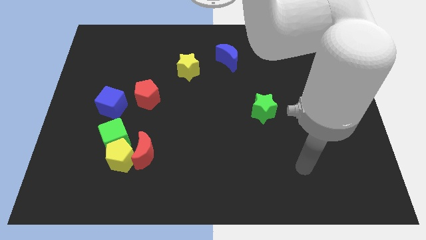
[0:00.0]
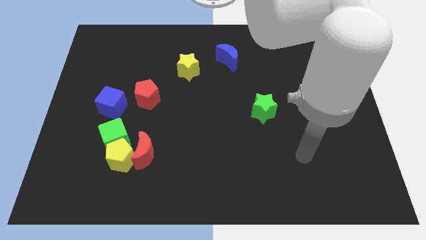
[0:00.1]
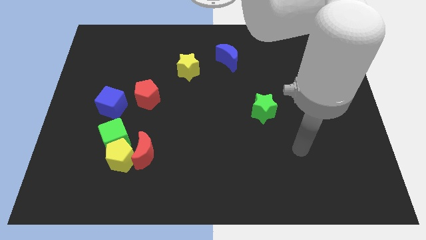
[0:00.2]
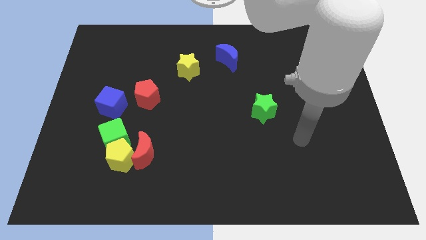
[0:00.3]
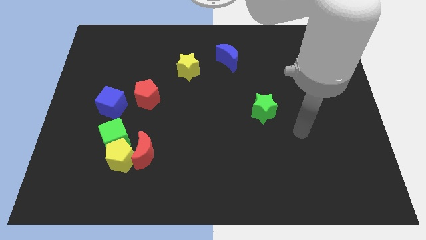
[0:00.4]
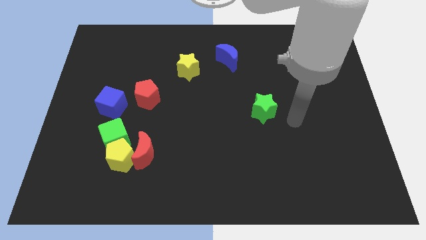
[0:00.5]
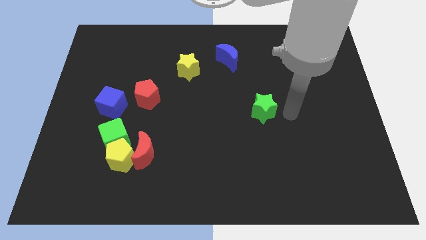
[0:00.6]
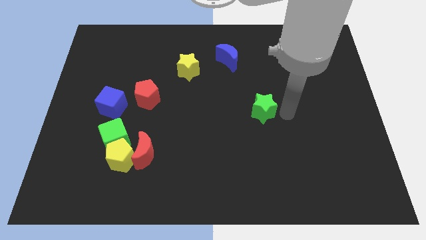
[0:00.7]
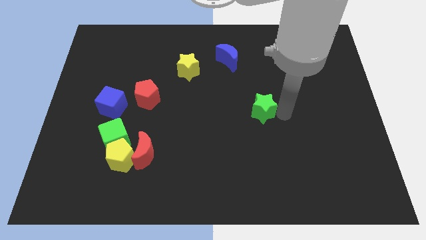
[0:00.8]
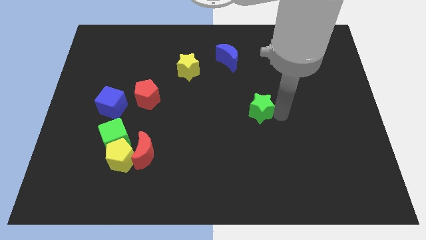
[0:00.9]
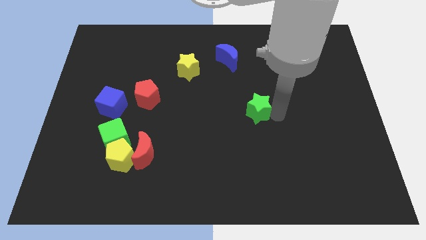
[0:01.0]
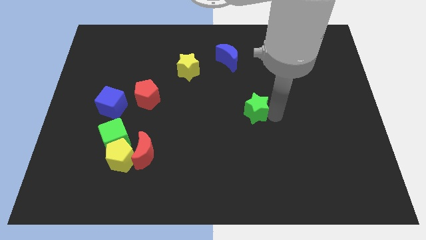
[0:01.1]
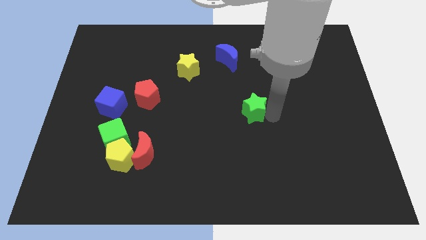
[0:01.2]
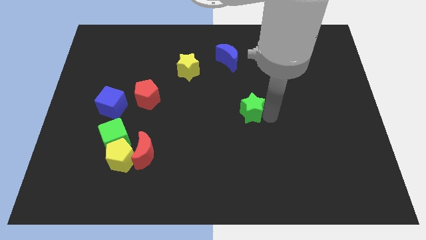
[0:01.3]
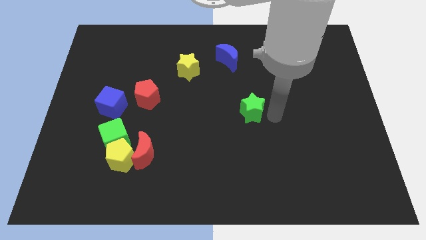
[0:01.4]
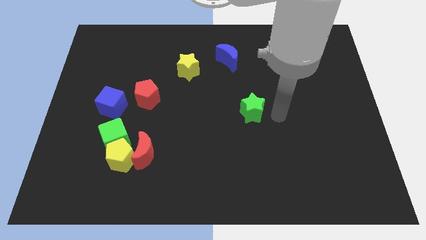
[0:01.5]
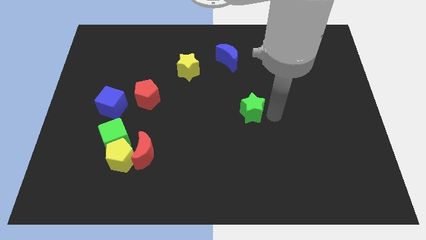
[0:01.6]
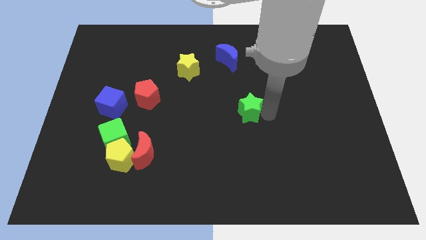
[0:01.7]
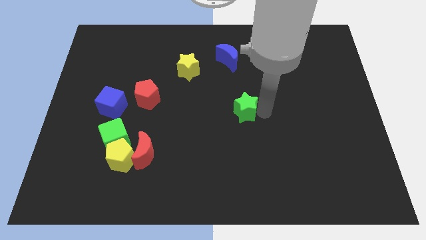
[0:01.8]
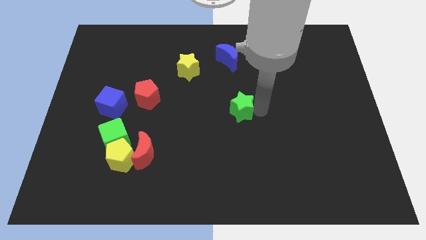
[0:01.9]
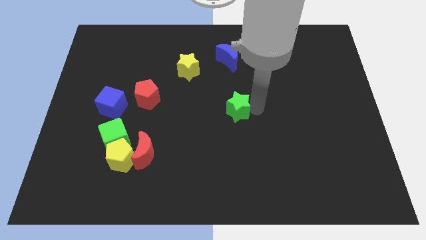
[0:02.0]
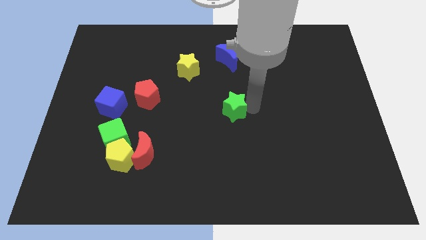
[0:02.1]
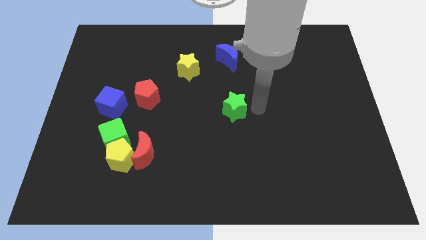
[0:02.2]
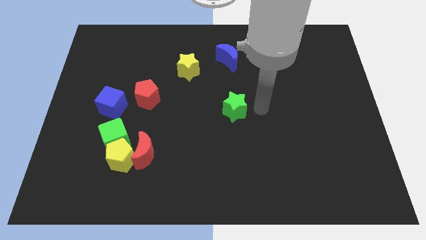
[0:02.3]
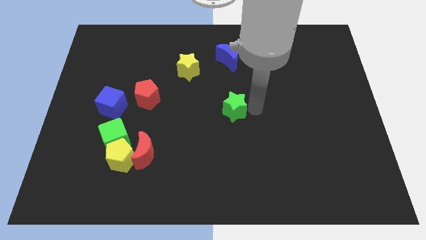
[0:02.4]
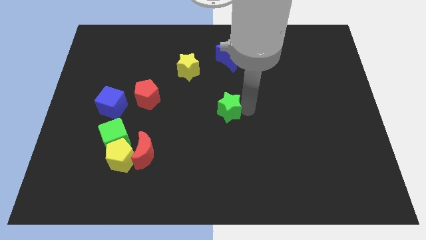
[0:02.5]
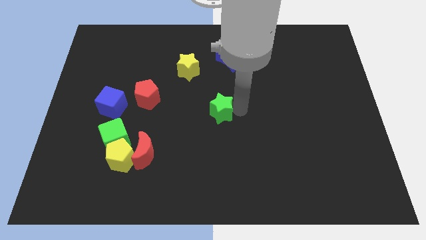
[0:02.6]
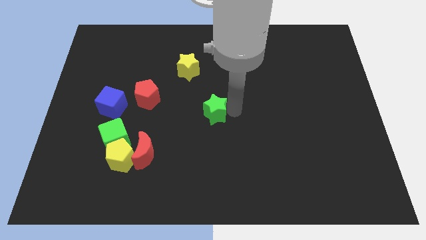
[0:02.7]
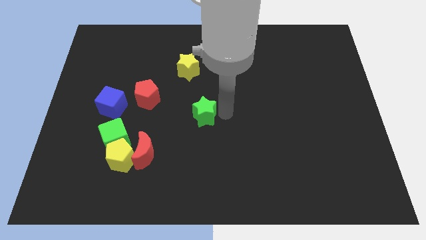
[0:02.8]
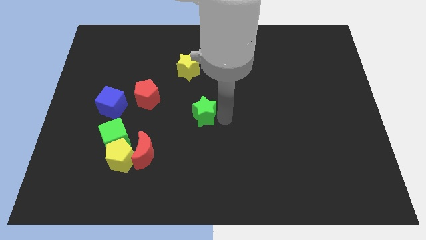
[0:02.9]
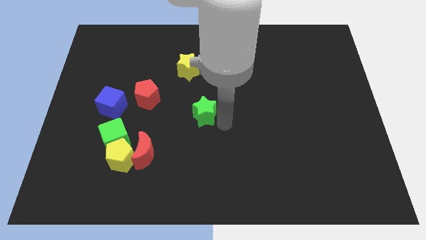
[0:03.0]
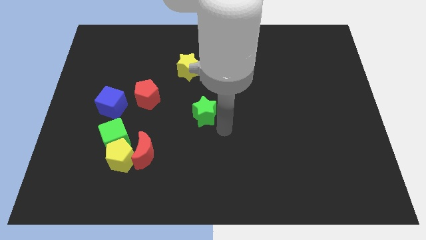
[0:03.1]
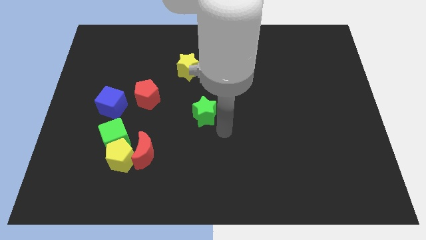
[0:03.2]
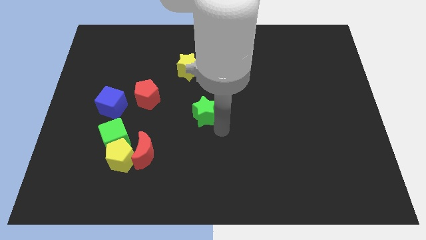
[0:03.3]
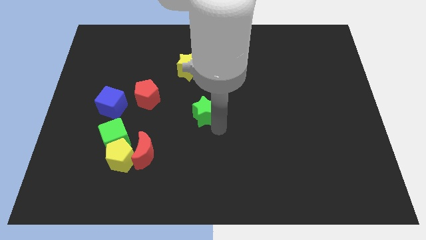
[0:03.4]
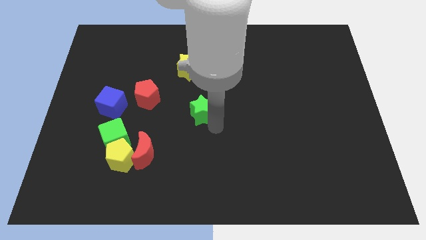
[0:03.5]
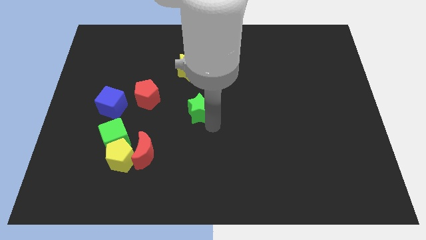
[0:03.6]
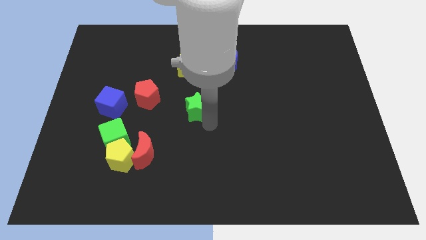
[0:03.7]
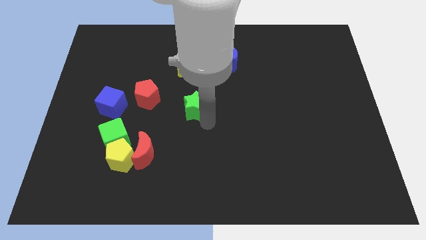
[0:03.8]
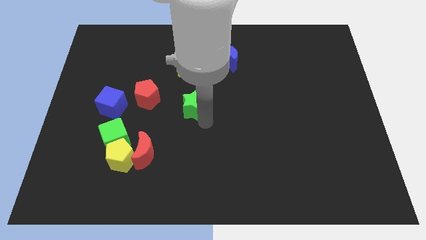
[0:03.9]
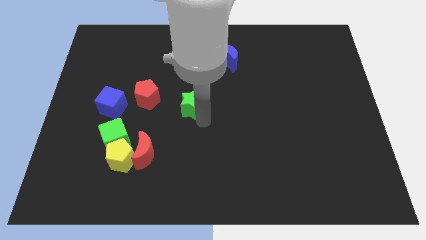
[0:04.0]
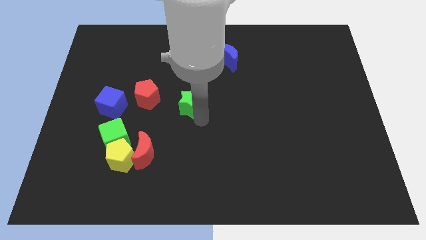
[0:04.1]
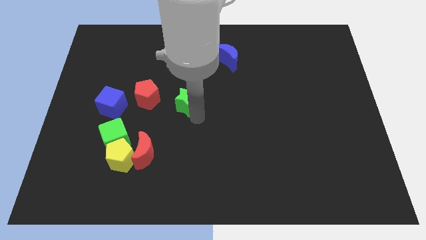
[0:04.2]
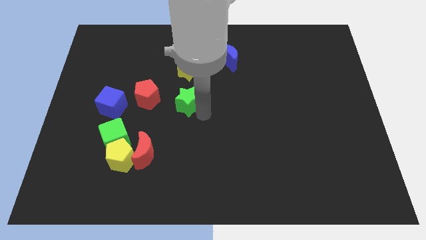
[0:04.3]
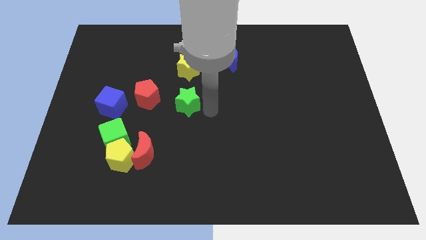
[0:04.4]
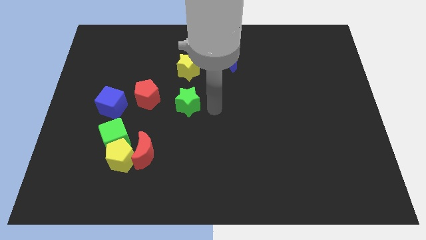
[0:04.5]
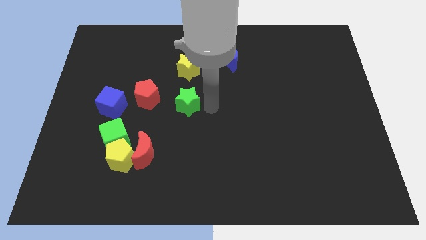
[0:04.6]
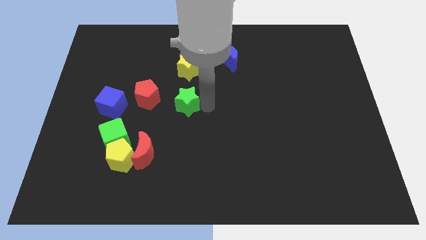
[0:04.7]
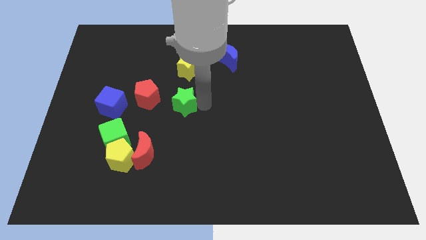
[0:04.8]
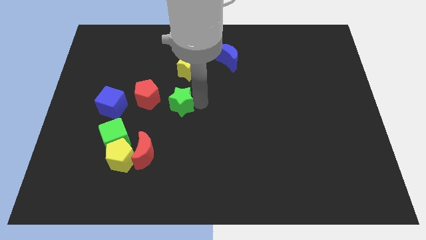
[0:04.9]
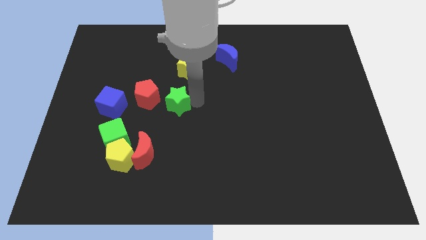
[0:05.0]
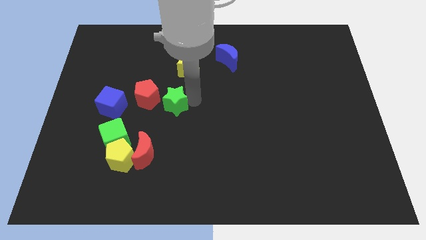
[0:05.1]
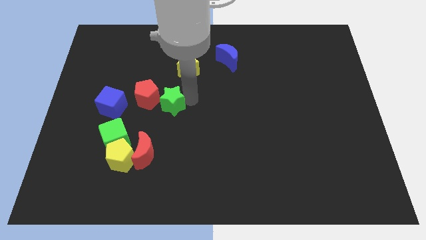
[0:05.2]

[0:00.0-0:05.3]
push the green star close to the red pentagon

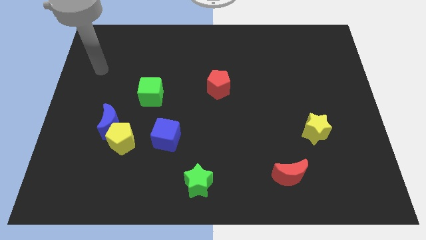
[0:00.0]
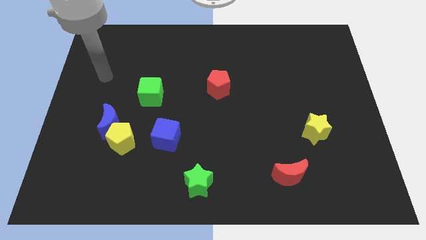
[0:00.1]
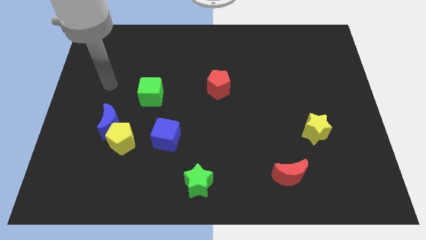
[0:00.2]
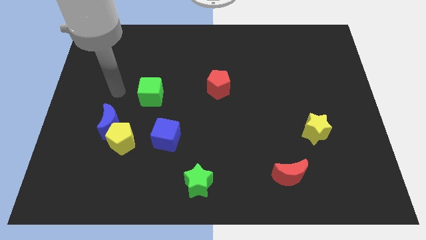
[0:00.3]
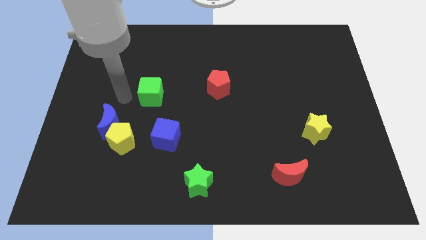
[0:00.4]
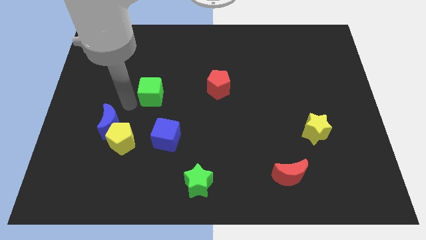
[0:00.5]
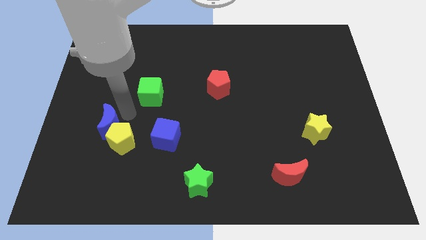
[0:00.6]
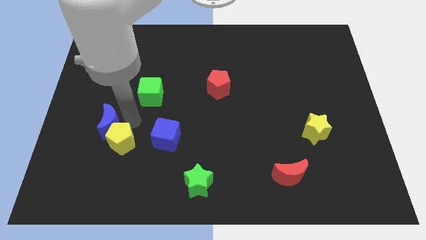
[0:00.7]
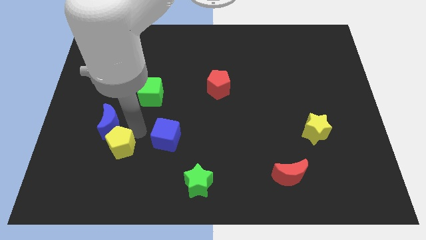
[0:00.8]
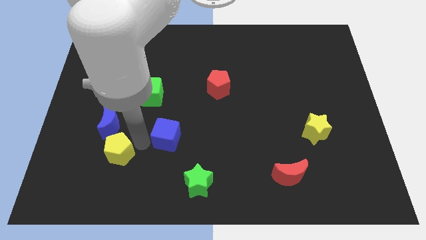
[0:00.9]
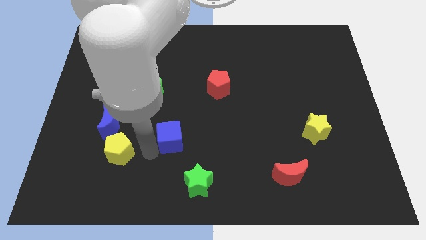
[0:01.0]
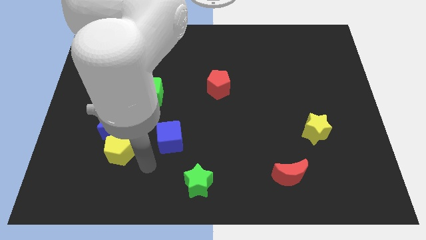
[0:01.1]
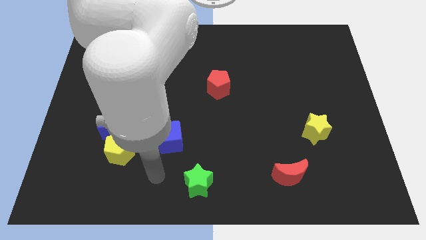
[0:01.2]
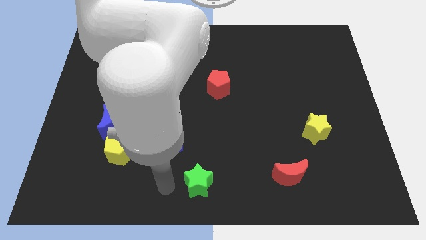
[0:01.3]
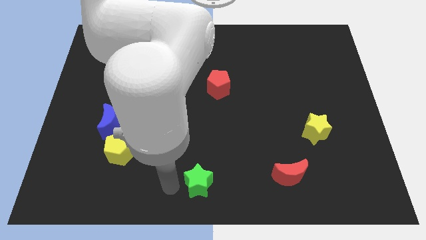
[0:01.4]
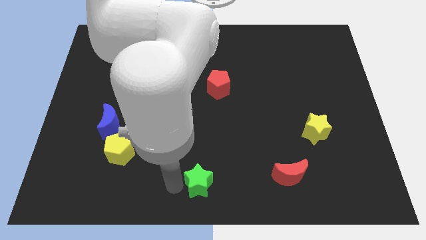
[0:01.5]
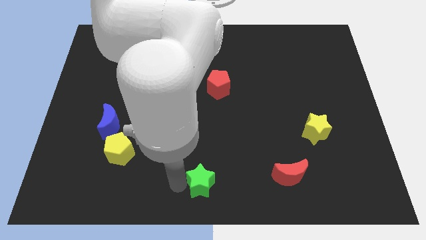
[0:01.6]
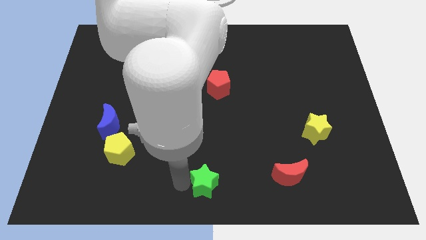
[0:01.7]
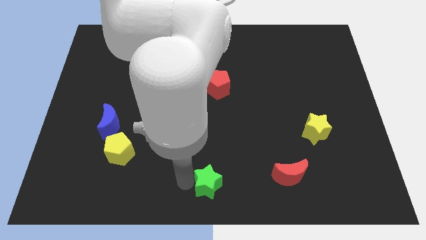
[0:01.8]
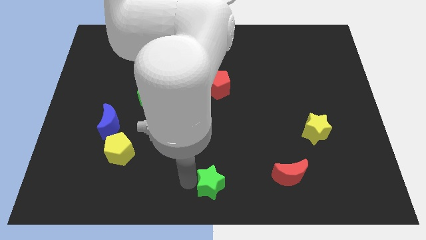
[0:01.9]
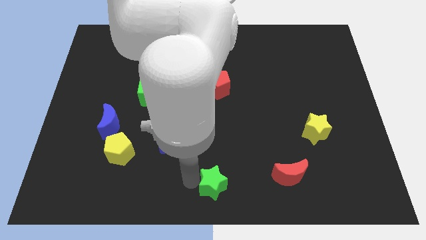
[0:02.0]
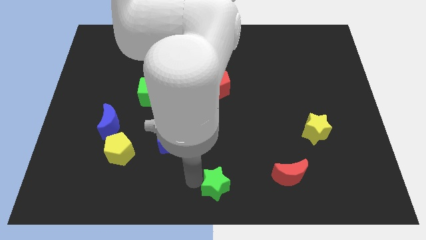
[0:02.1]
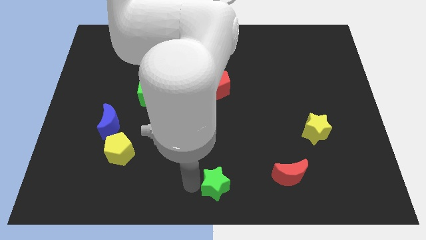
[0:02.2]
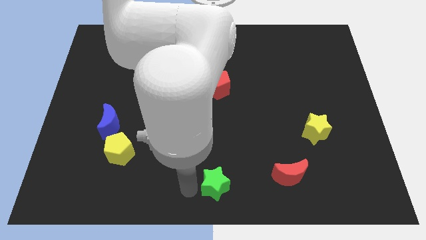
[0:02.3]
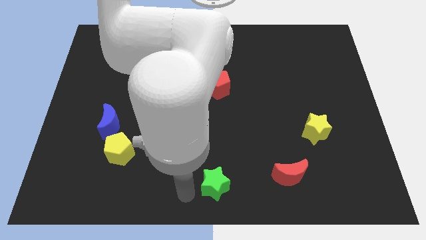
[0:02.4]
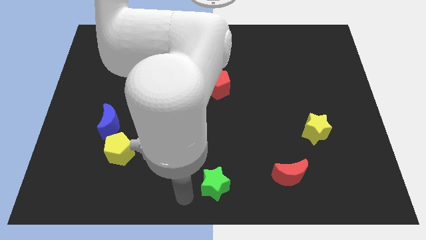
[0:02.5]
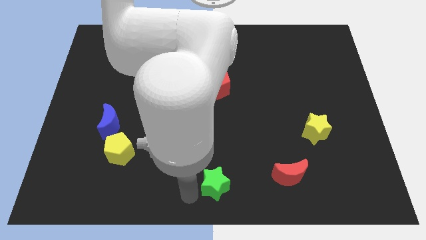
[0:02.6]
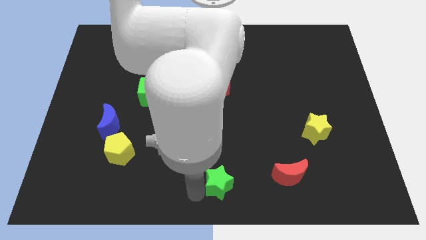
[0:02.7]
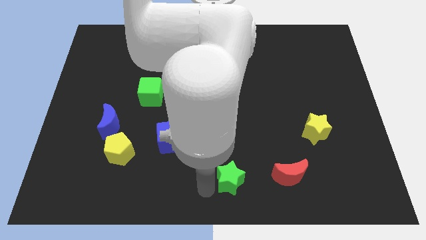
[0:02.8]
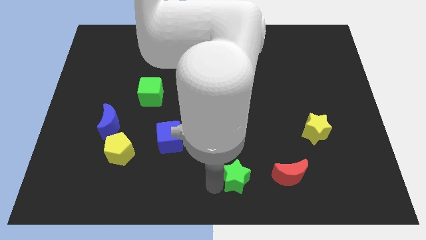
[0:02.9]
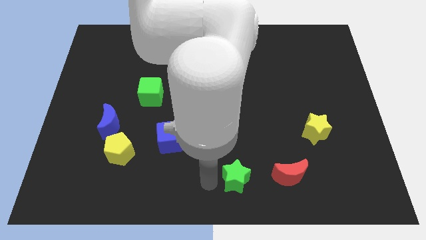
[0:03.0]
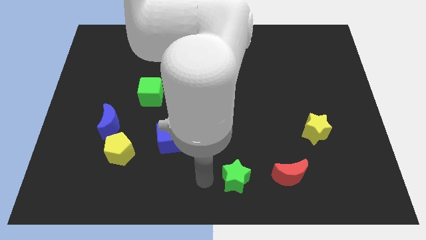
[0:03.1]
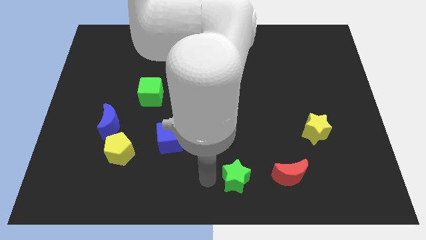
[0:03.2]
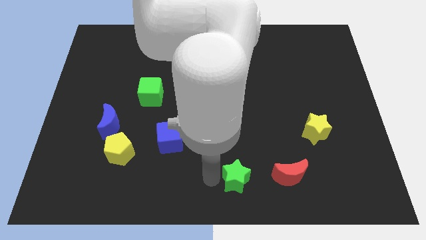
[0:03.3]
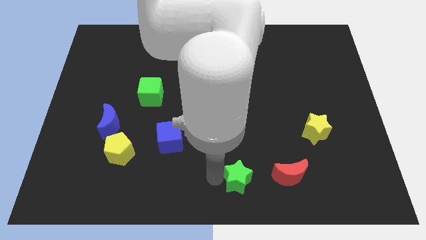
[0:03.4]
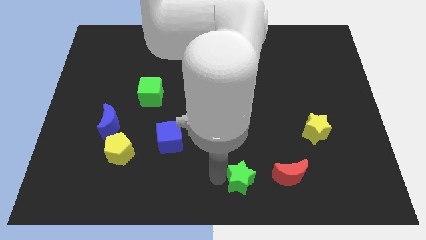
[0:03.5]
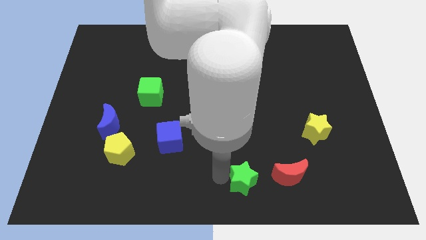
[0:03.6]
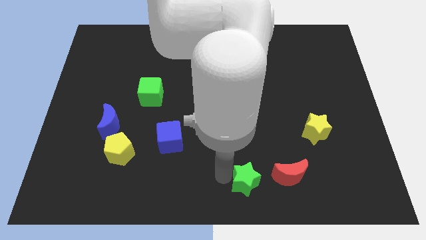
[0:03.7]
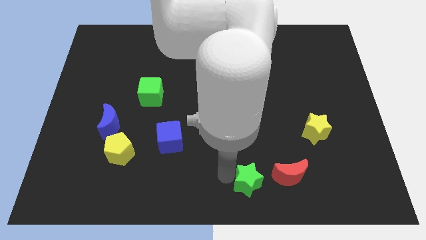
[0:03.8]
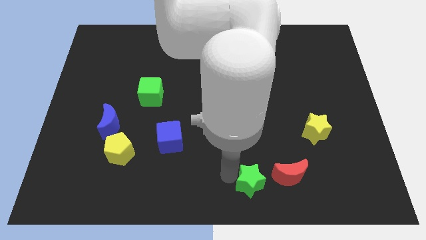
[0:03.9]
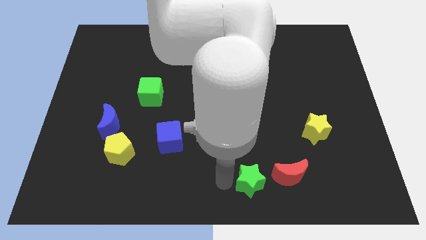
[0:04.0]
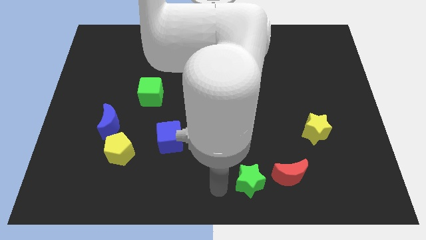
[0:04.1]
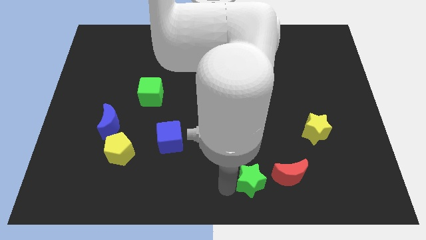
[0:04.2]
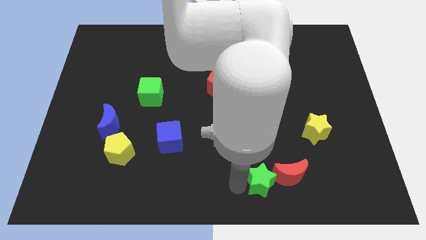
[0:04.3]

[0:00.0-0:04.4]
push the green star close to the red moon
